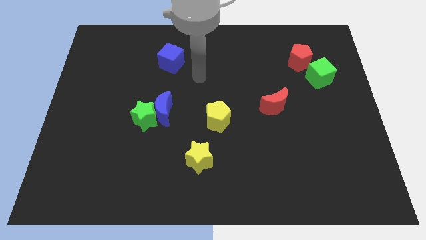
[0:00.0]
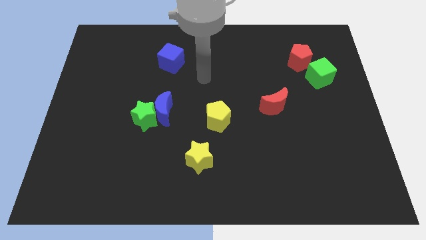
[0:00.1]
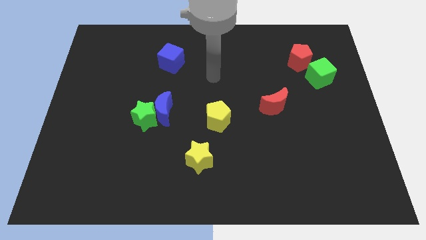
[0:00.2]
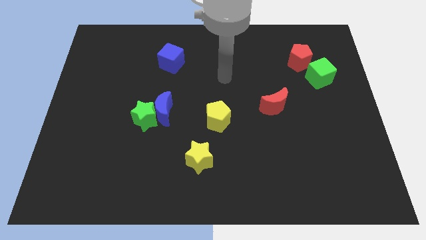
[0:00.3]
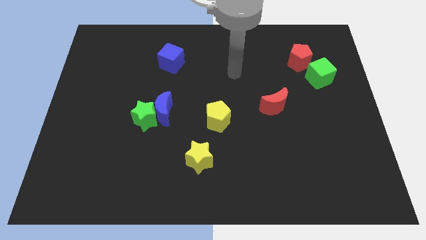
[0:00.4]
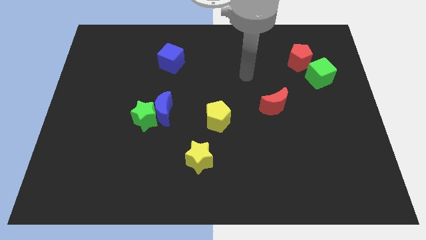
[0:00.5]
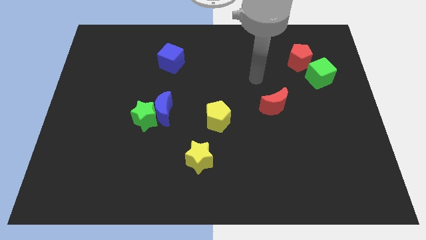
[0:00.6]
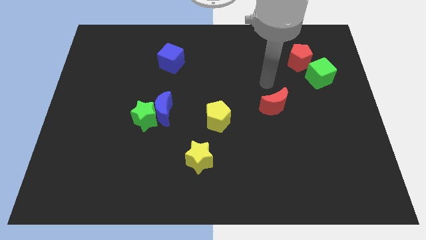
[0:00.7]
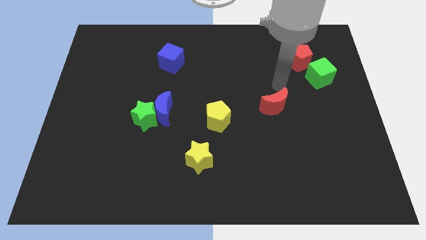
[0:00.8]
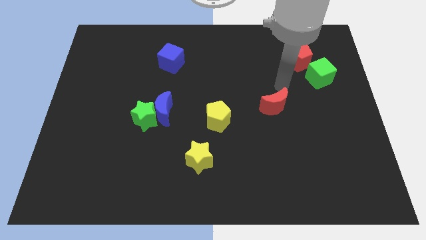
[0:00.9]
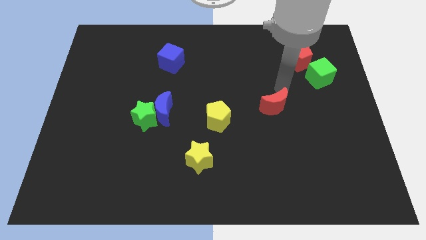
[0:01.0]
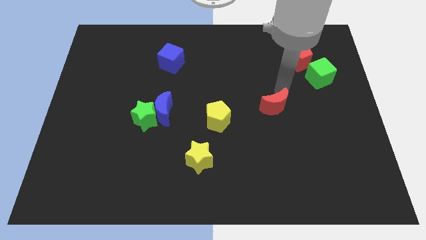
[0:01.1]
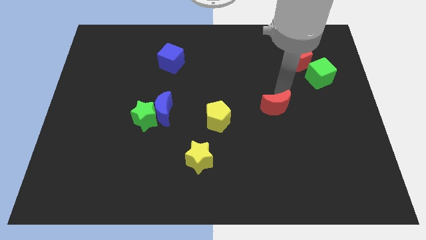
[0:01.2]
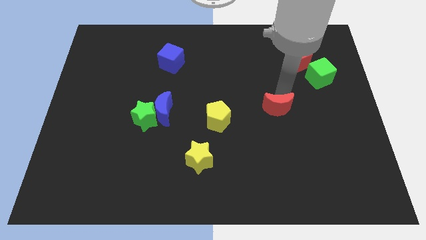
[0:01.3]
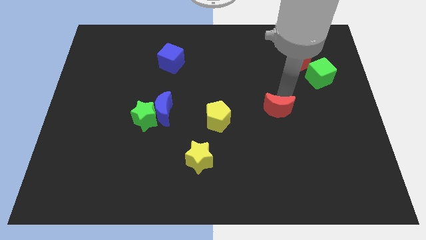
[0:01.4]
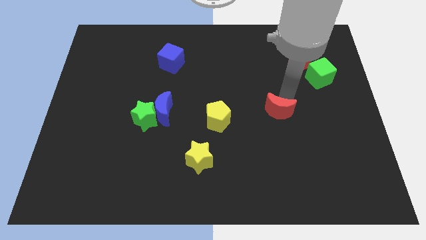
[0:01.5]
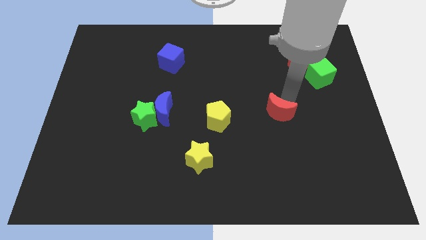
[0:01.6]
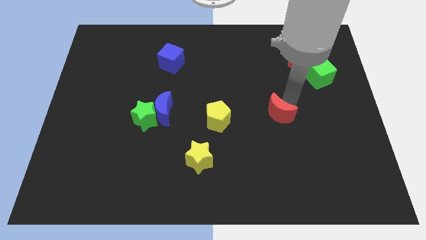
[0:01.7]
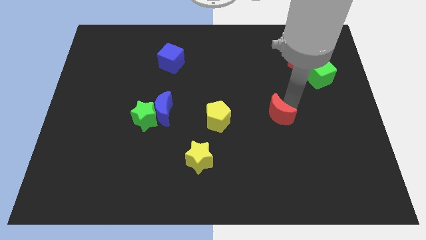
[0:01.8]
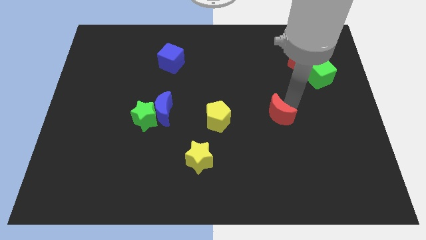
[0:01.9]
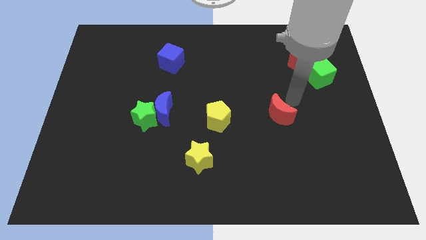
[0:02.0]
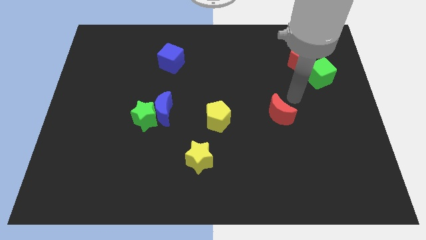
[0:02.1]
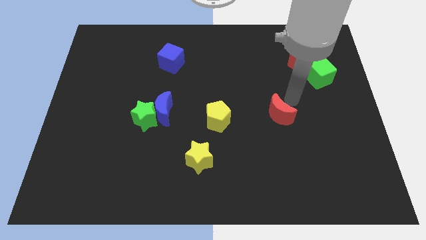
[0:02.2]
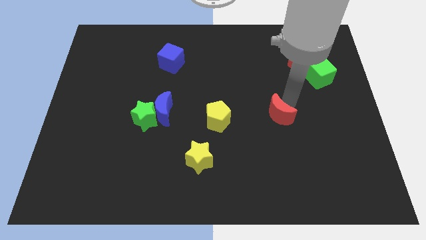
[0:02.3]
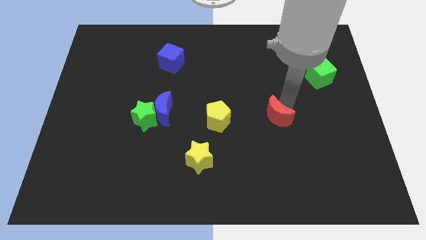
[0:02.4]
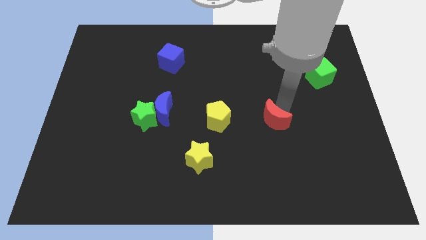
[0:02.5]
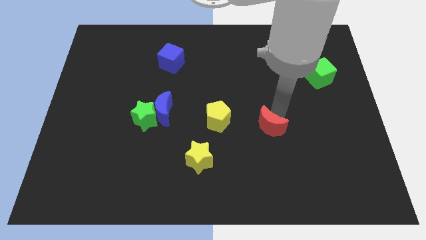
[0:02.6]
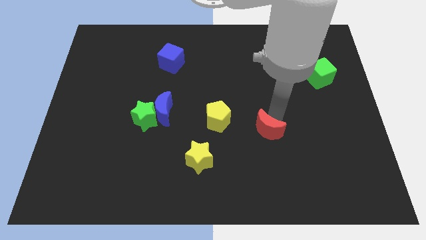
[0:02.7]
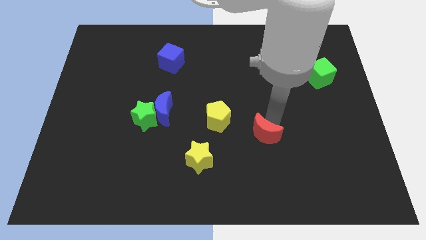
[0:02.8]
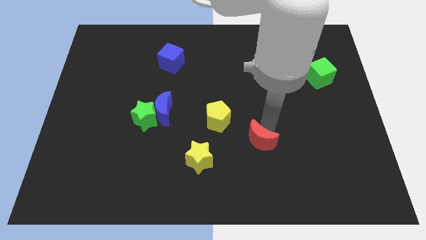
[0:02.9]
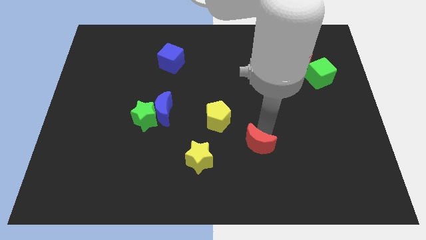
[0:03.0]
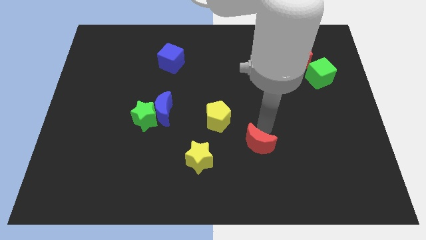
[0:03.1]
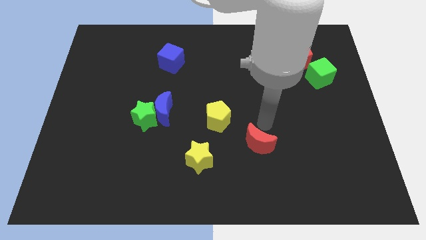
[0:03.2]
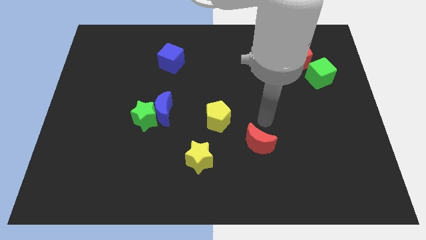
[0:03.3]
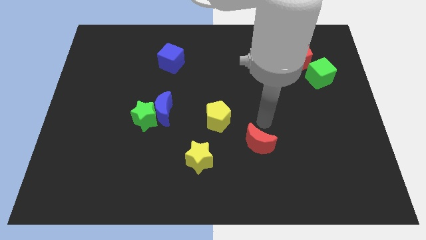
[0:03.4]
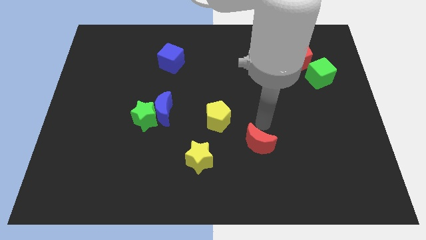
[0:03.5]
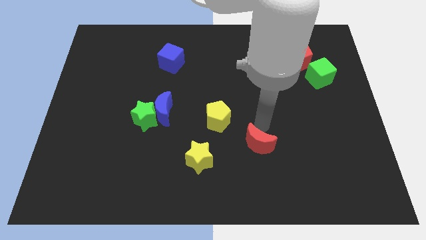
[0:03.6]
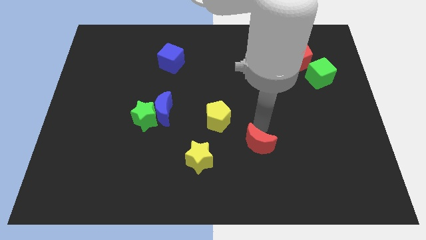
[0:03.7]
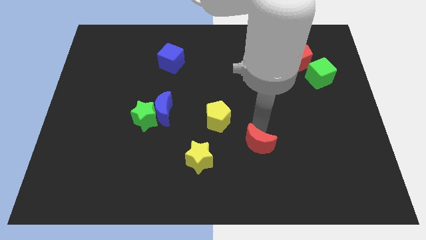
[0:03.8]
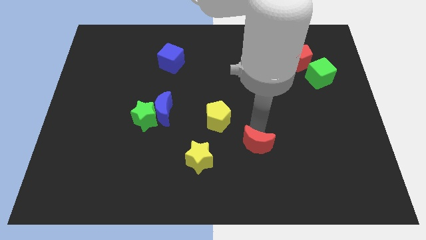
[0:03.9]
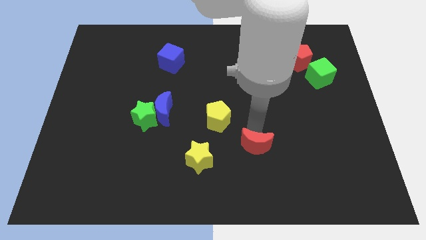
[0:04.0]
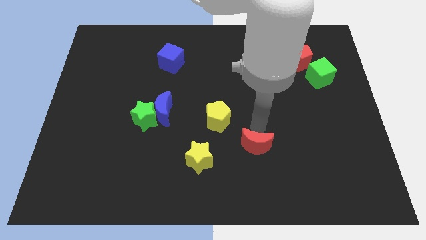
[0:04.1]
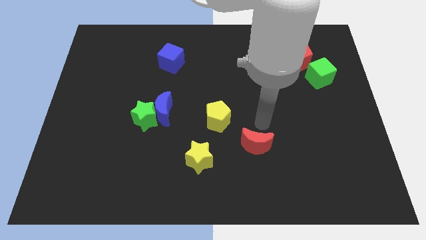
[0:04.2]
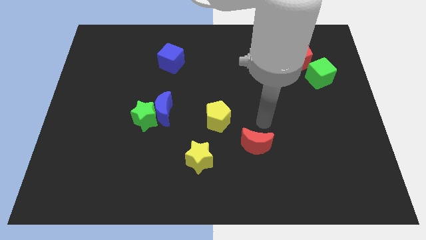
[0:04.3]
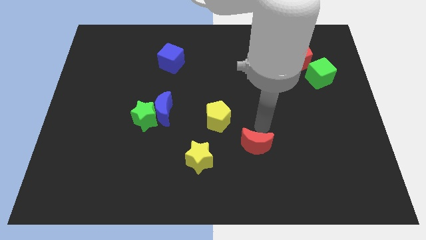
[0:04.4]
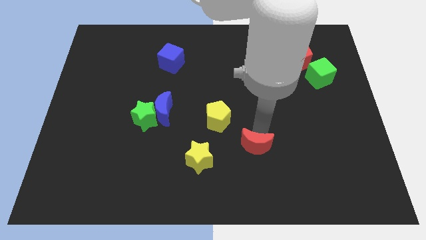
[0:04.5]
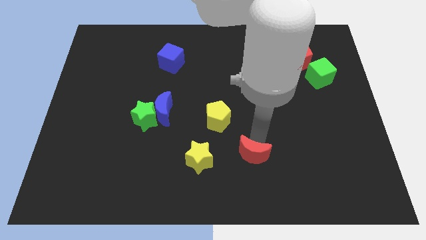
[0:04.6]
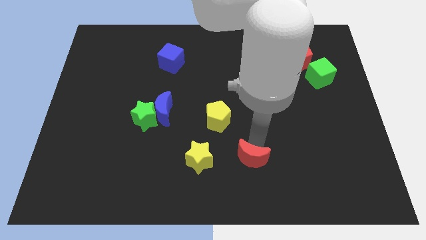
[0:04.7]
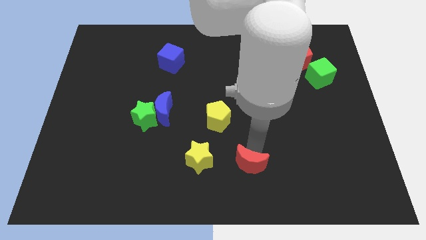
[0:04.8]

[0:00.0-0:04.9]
put the red moon to the bottom
